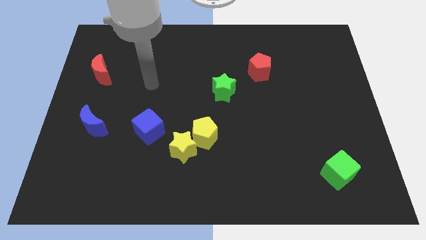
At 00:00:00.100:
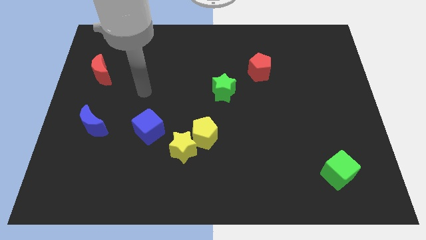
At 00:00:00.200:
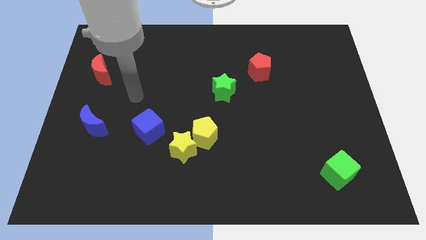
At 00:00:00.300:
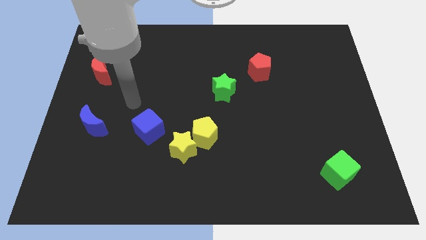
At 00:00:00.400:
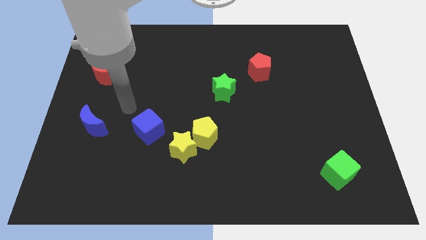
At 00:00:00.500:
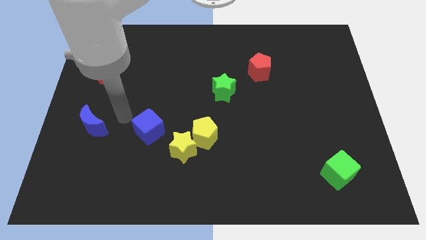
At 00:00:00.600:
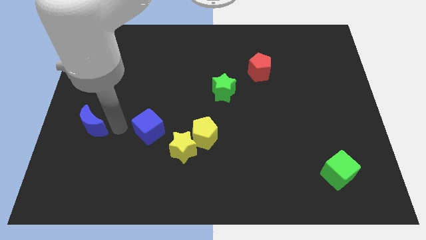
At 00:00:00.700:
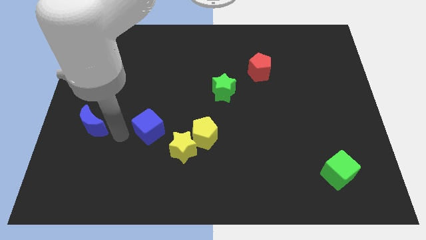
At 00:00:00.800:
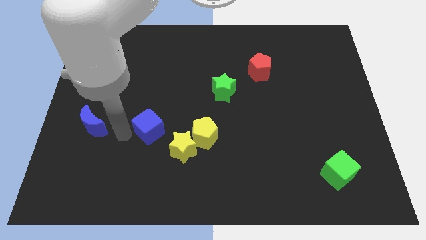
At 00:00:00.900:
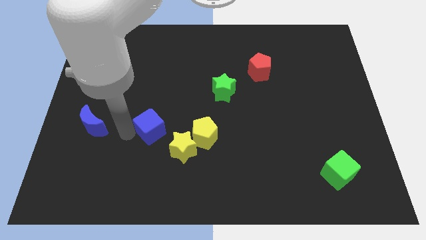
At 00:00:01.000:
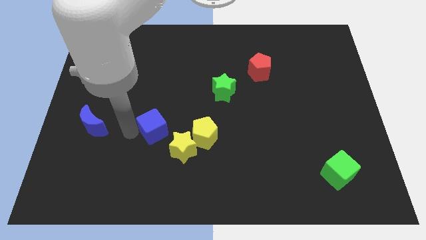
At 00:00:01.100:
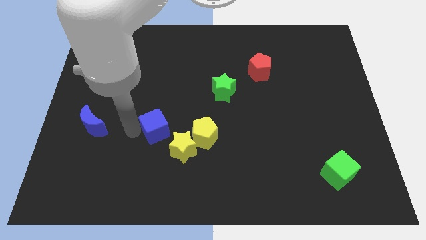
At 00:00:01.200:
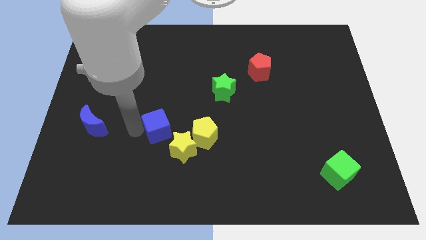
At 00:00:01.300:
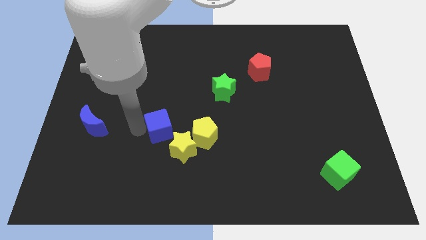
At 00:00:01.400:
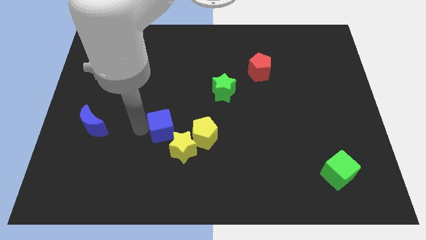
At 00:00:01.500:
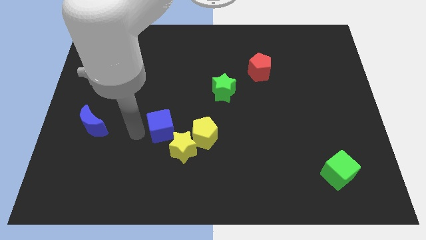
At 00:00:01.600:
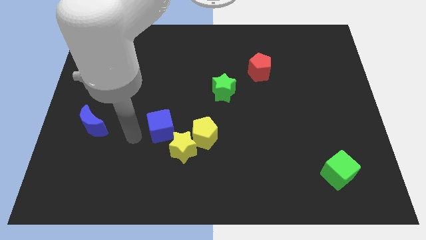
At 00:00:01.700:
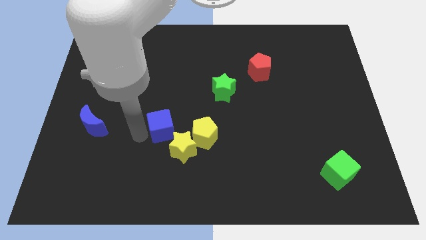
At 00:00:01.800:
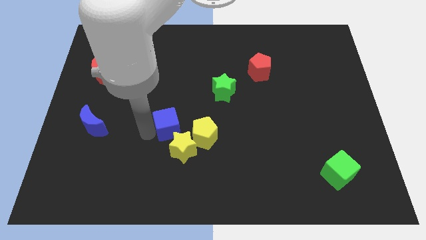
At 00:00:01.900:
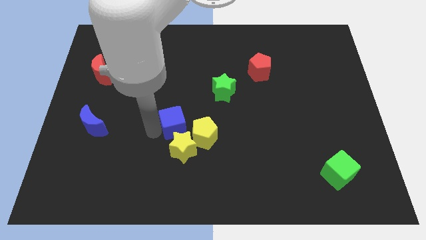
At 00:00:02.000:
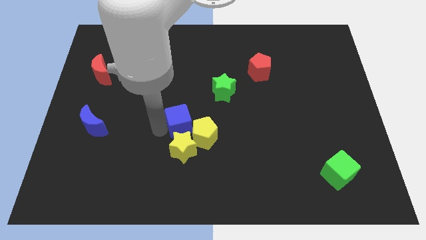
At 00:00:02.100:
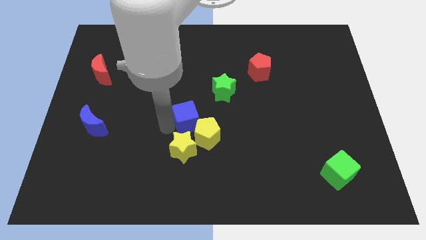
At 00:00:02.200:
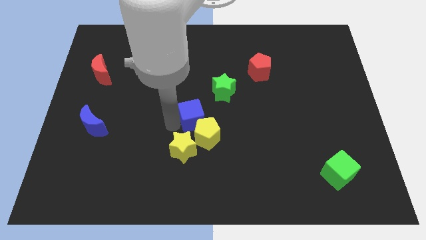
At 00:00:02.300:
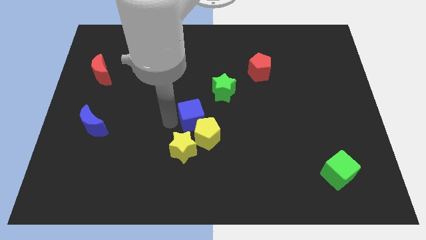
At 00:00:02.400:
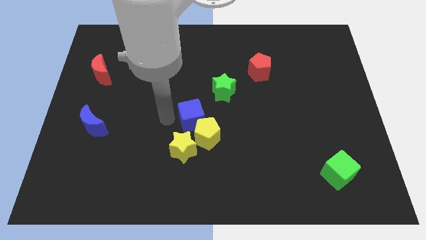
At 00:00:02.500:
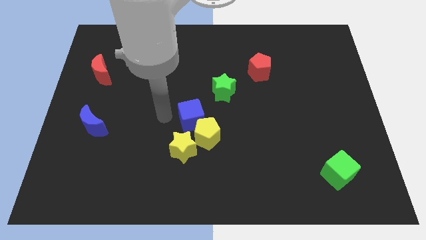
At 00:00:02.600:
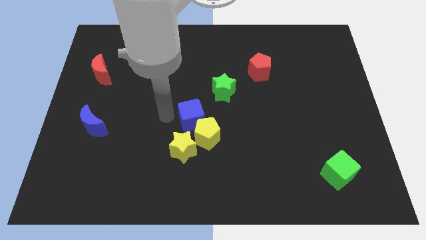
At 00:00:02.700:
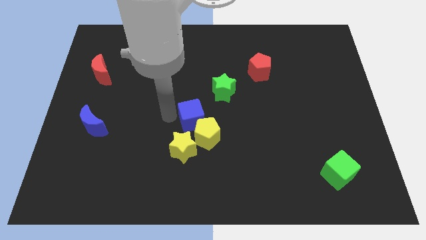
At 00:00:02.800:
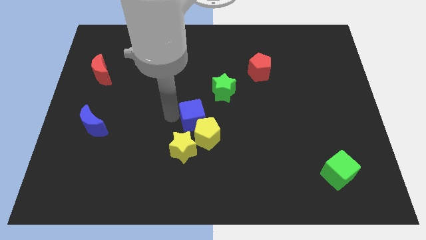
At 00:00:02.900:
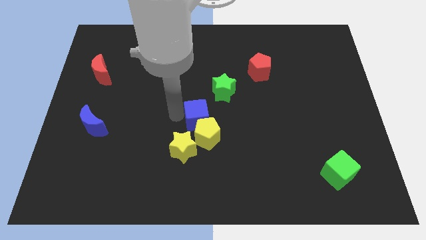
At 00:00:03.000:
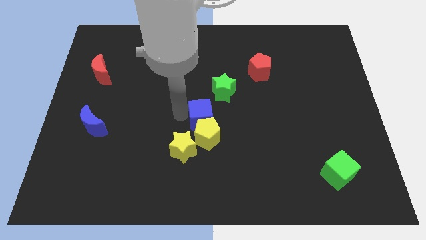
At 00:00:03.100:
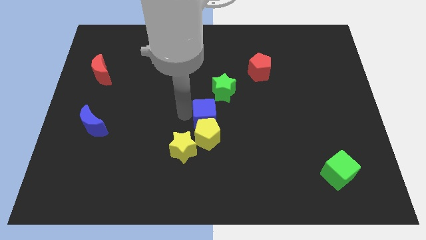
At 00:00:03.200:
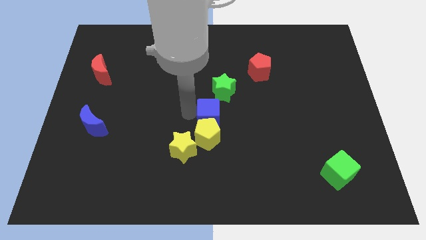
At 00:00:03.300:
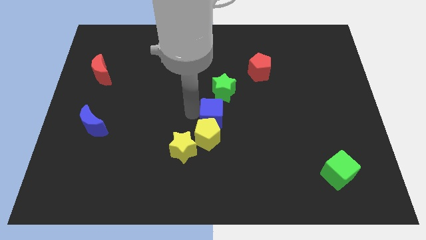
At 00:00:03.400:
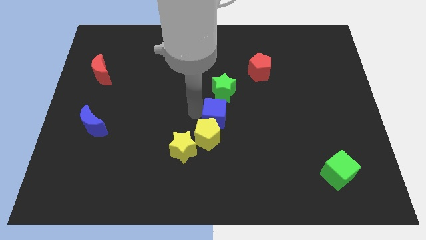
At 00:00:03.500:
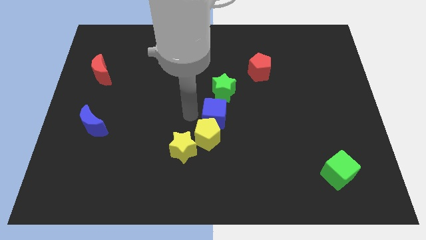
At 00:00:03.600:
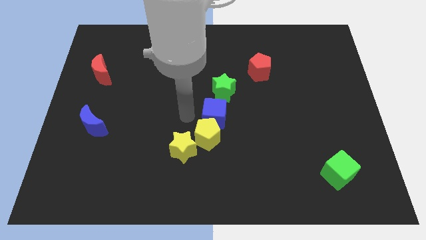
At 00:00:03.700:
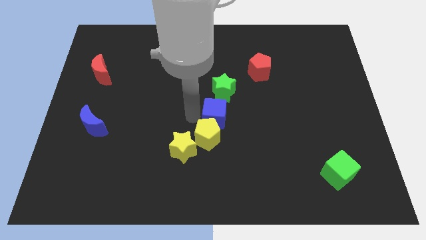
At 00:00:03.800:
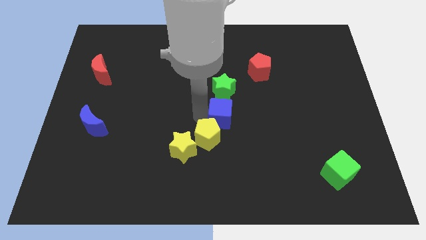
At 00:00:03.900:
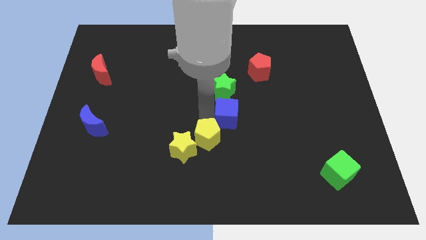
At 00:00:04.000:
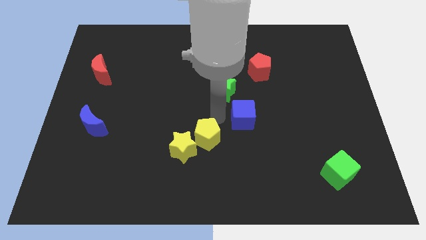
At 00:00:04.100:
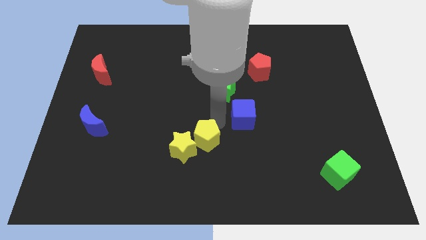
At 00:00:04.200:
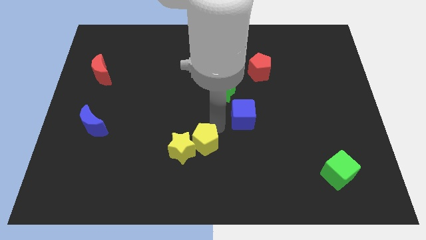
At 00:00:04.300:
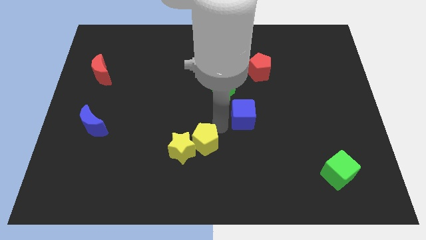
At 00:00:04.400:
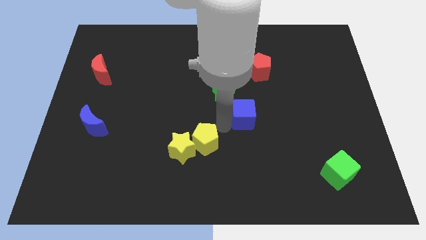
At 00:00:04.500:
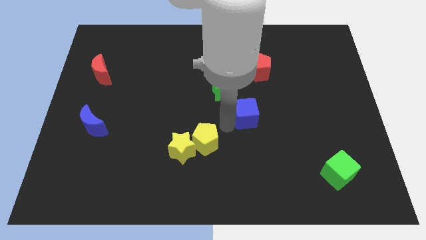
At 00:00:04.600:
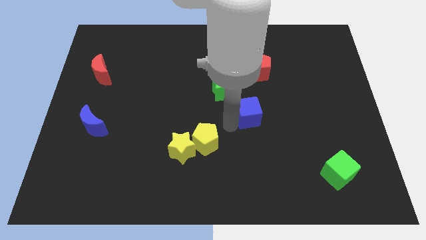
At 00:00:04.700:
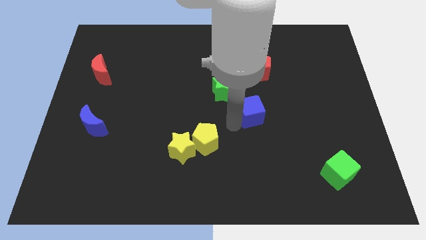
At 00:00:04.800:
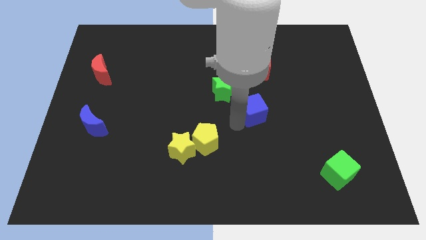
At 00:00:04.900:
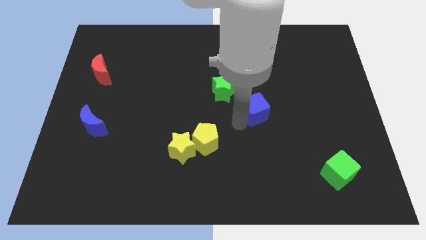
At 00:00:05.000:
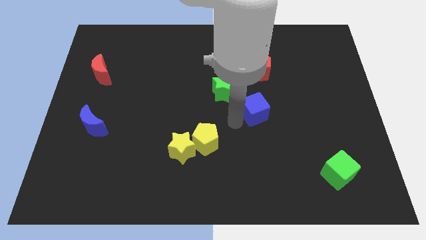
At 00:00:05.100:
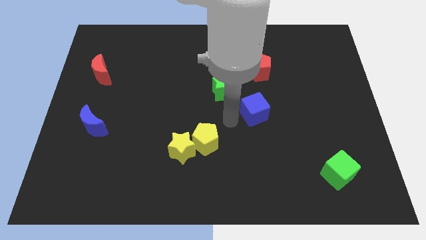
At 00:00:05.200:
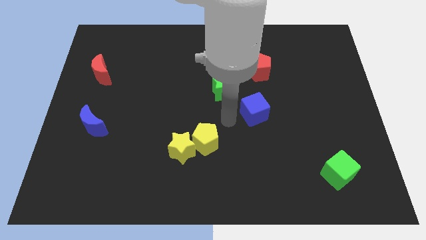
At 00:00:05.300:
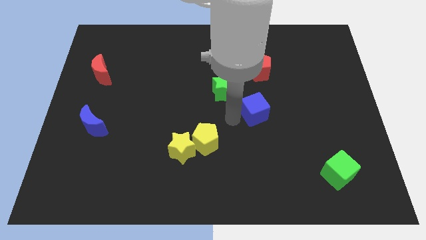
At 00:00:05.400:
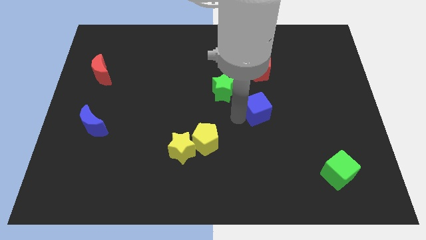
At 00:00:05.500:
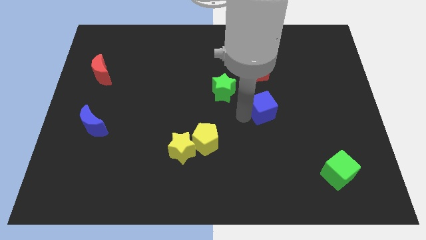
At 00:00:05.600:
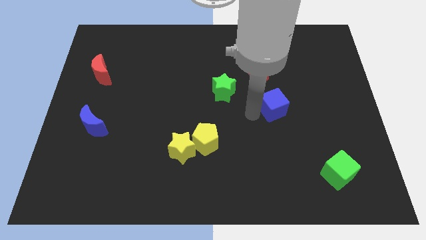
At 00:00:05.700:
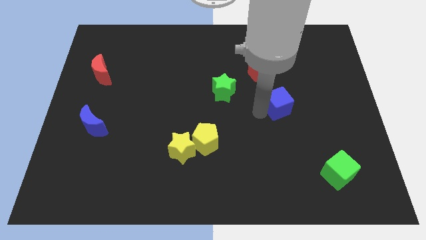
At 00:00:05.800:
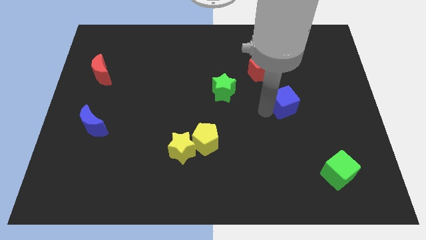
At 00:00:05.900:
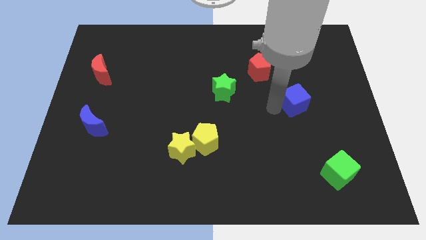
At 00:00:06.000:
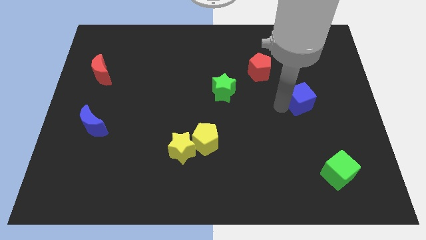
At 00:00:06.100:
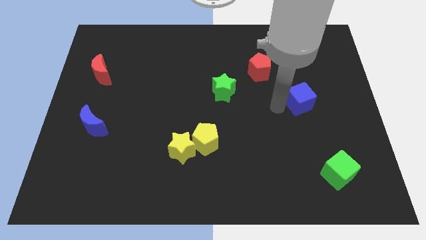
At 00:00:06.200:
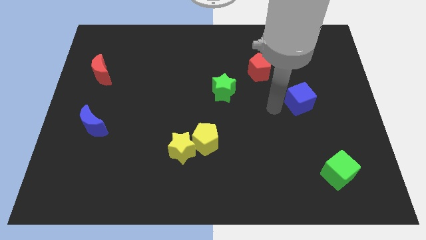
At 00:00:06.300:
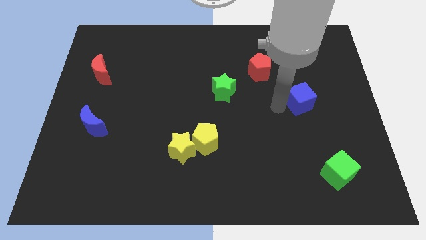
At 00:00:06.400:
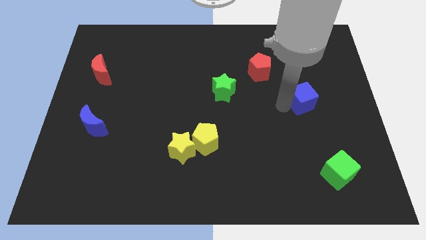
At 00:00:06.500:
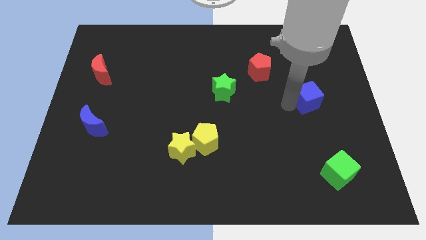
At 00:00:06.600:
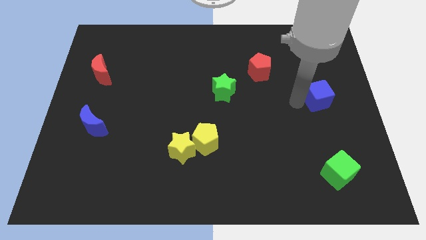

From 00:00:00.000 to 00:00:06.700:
push the blue cube to the right side of the board

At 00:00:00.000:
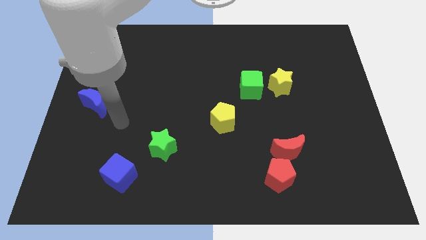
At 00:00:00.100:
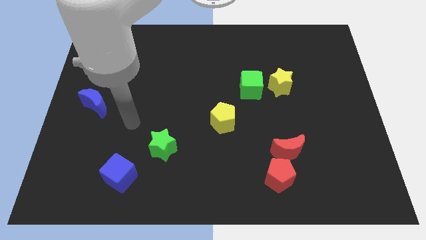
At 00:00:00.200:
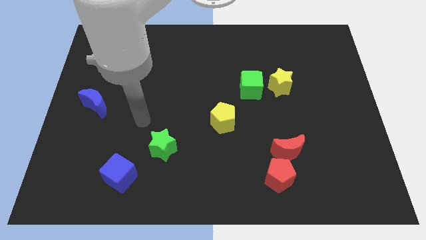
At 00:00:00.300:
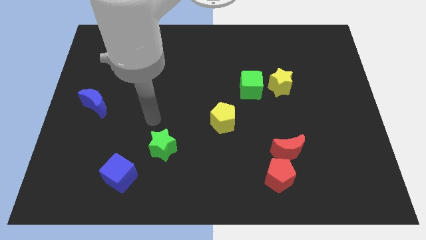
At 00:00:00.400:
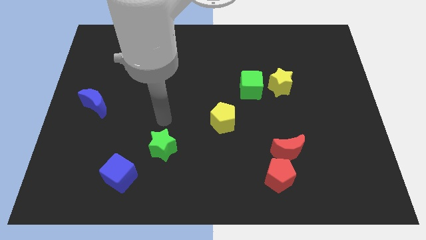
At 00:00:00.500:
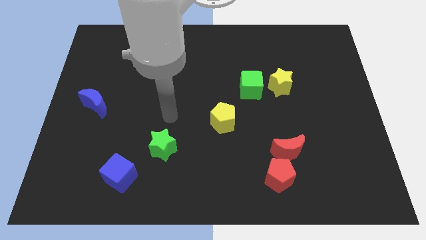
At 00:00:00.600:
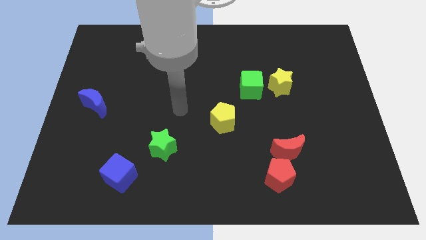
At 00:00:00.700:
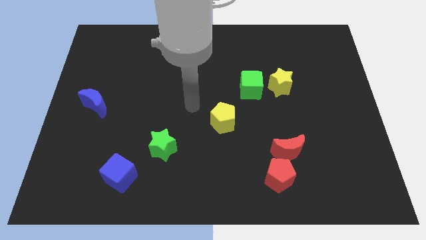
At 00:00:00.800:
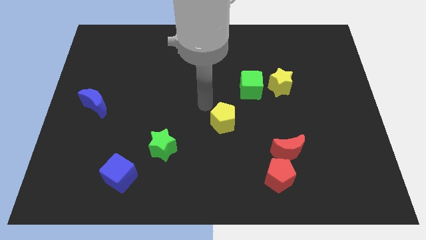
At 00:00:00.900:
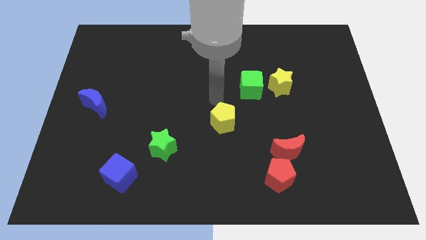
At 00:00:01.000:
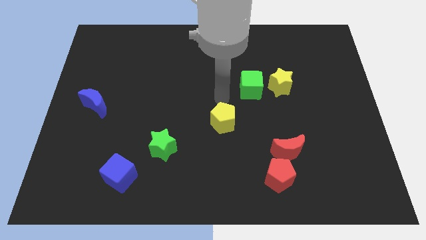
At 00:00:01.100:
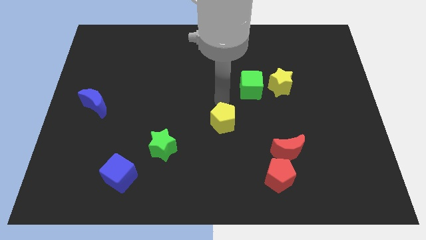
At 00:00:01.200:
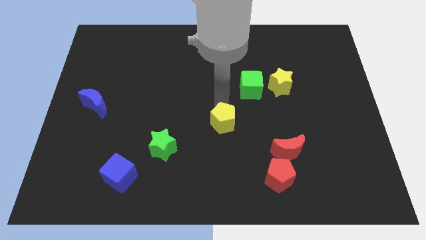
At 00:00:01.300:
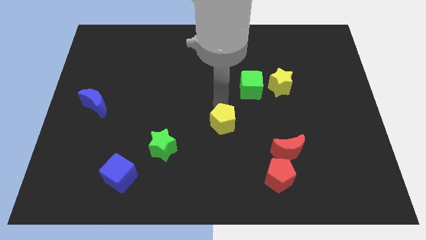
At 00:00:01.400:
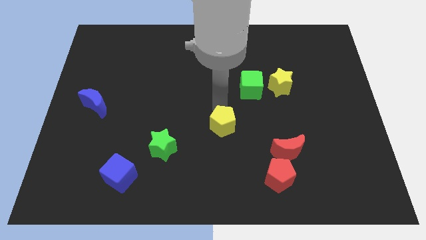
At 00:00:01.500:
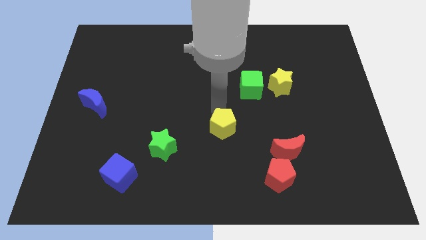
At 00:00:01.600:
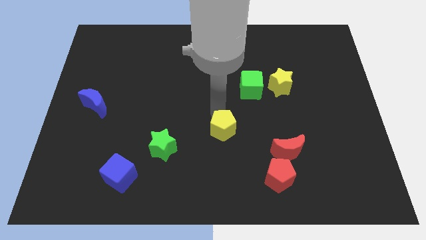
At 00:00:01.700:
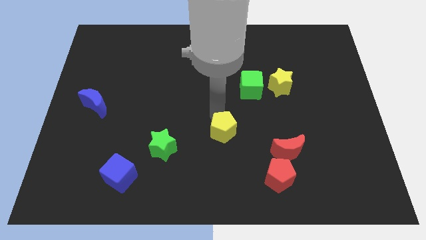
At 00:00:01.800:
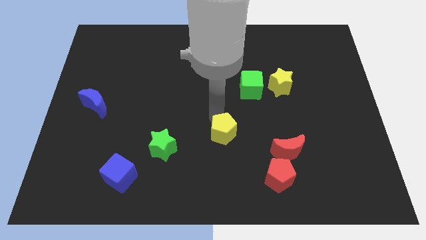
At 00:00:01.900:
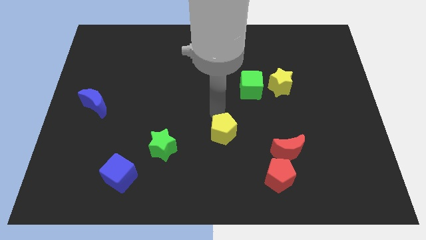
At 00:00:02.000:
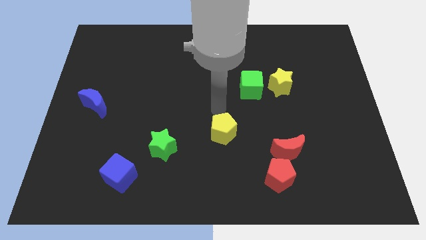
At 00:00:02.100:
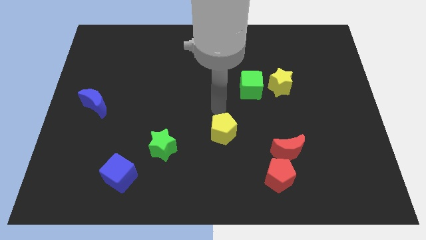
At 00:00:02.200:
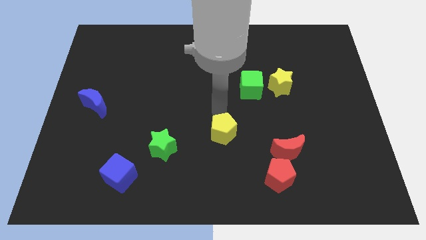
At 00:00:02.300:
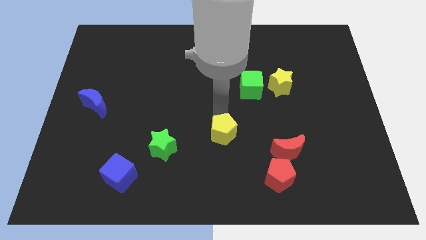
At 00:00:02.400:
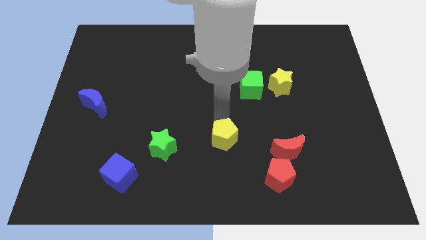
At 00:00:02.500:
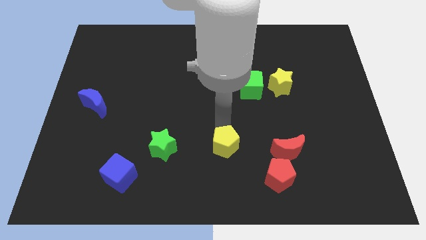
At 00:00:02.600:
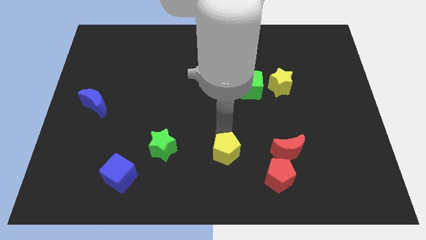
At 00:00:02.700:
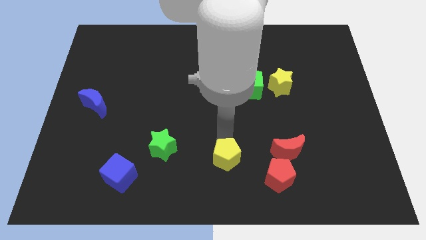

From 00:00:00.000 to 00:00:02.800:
put the yellow pentagon to the bottom
